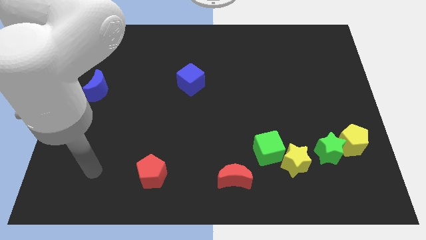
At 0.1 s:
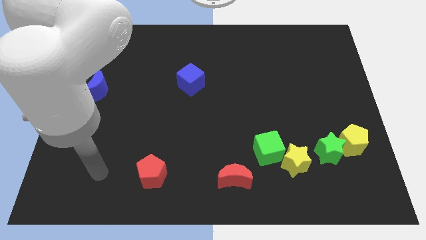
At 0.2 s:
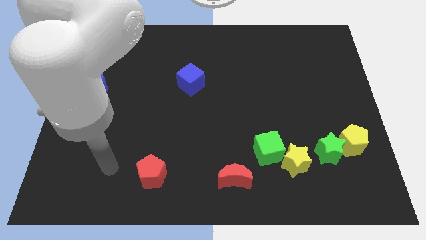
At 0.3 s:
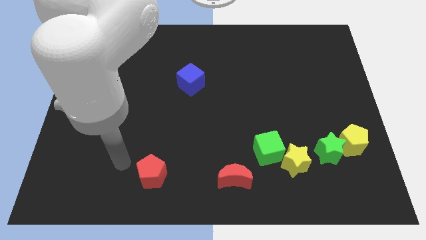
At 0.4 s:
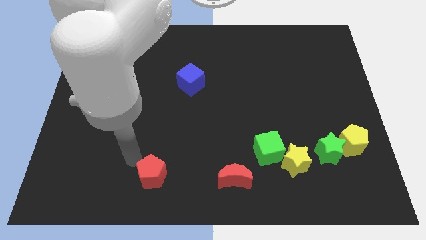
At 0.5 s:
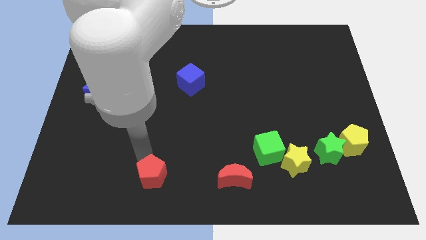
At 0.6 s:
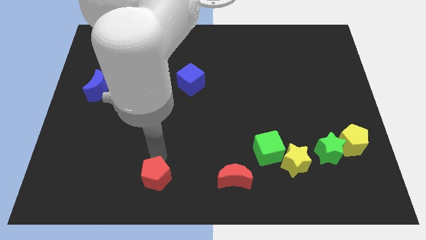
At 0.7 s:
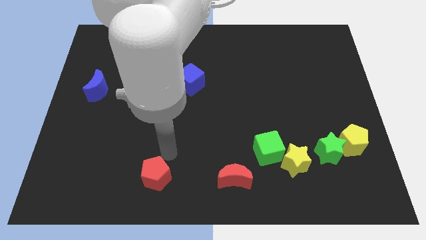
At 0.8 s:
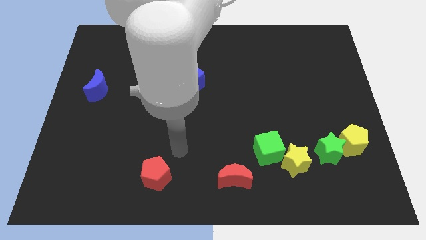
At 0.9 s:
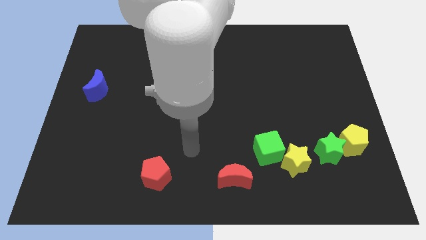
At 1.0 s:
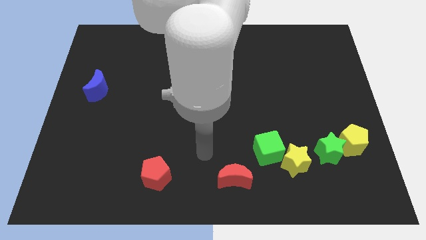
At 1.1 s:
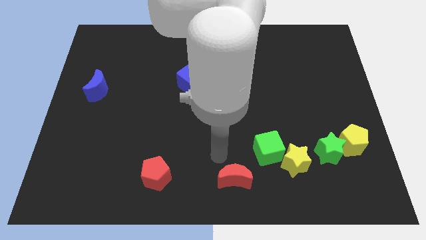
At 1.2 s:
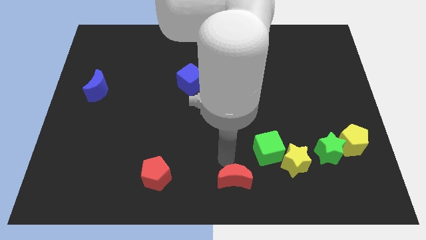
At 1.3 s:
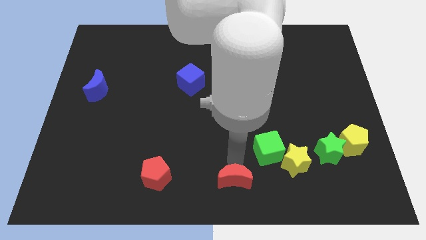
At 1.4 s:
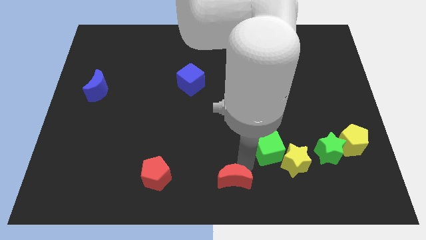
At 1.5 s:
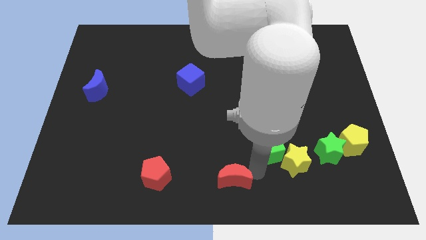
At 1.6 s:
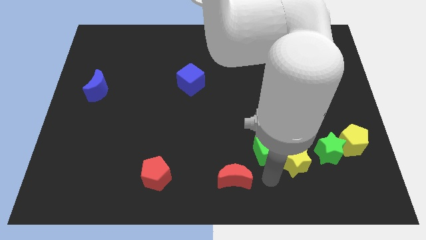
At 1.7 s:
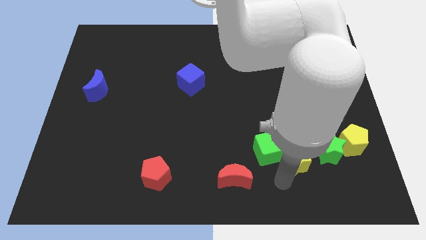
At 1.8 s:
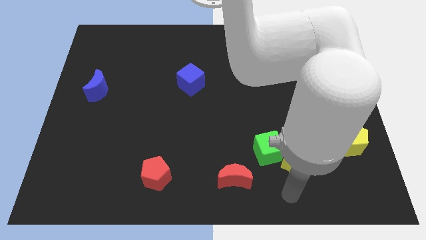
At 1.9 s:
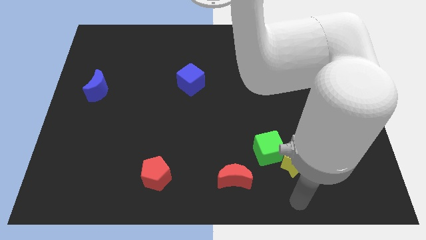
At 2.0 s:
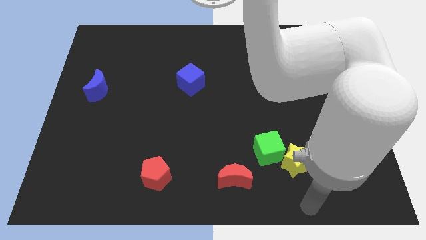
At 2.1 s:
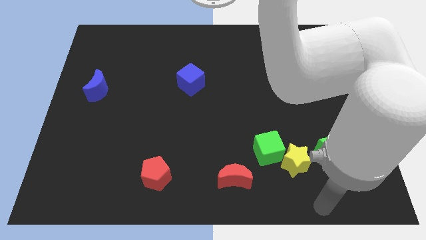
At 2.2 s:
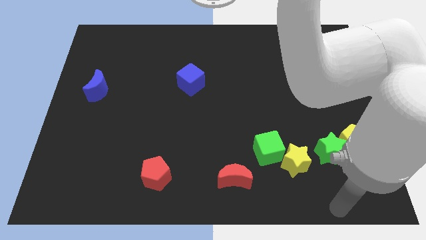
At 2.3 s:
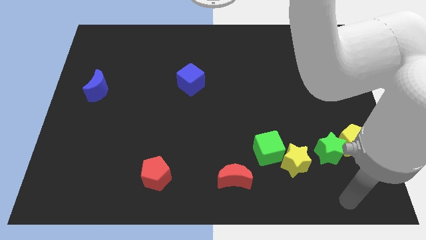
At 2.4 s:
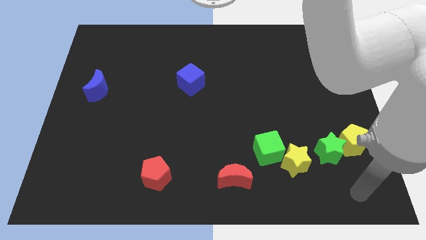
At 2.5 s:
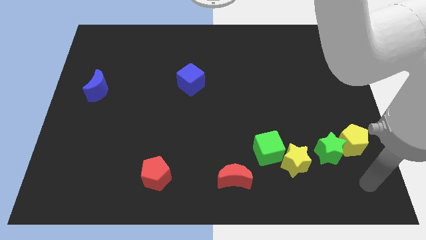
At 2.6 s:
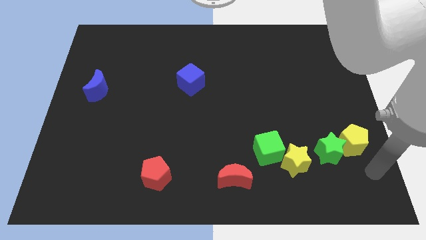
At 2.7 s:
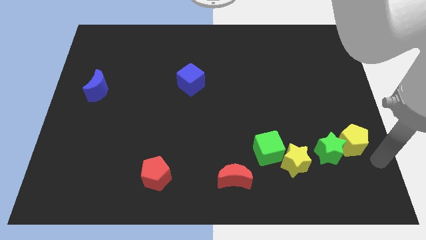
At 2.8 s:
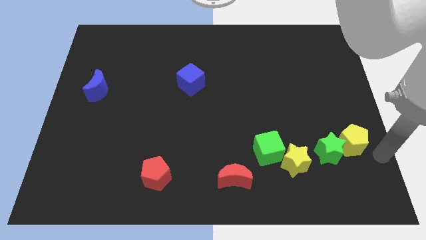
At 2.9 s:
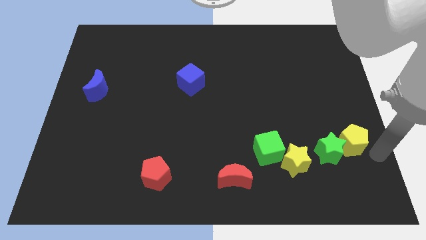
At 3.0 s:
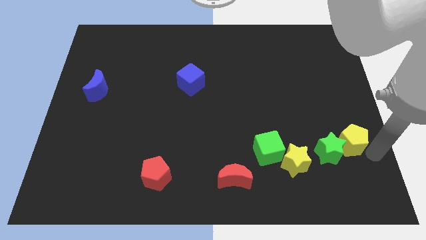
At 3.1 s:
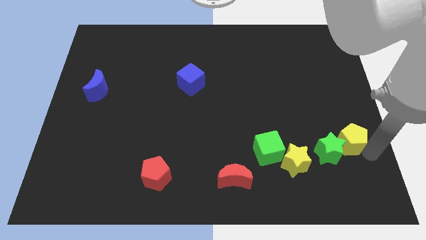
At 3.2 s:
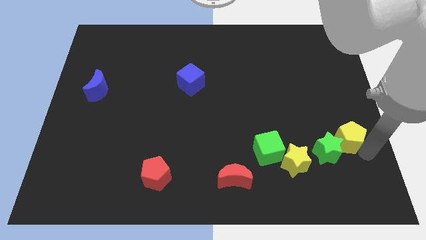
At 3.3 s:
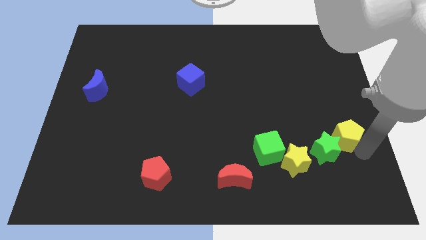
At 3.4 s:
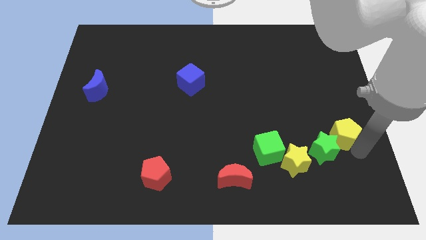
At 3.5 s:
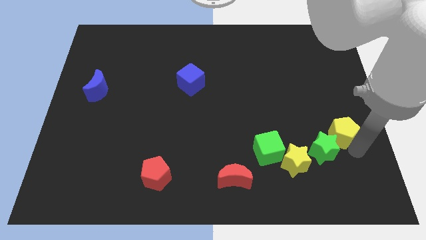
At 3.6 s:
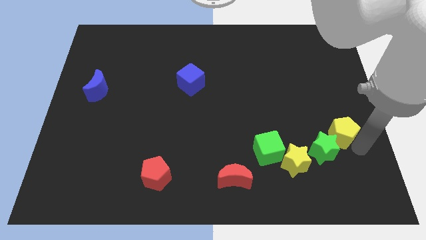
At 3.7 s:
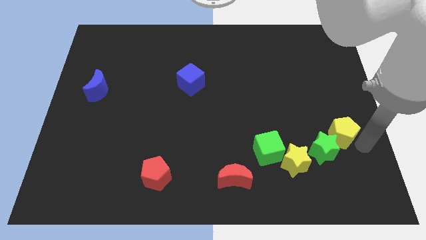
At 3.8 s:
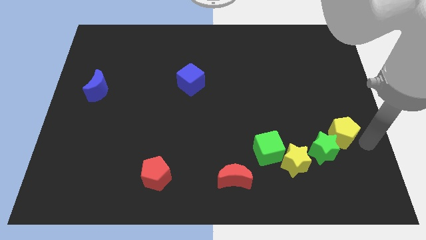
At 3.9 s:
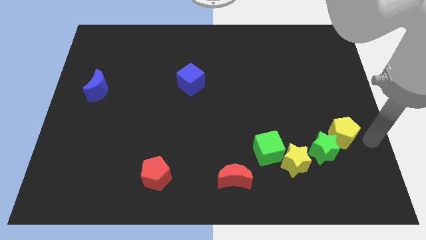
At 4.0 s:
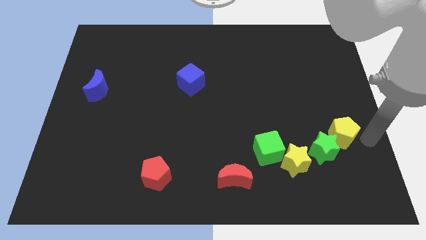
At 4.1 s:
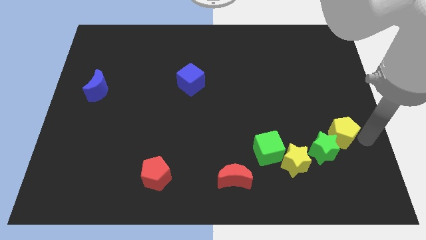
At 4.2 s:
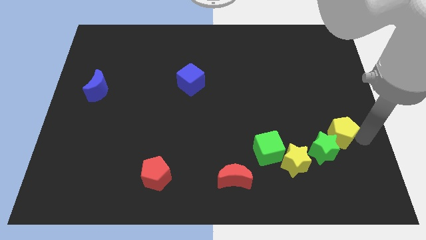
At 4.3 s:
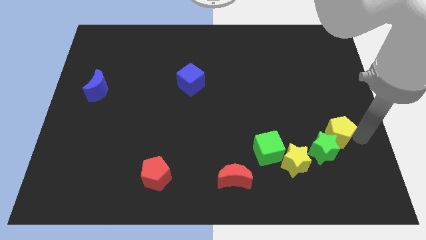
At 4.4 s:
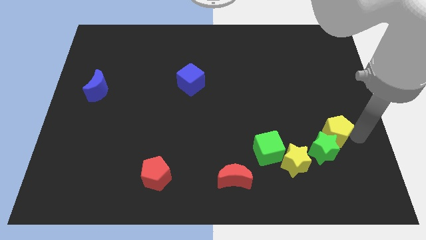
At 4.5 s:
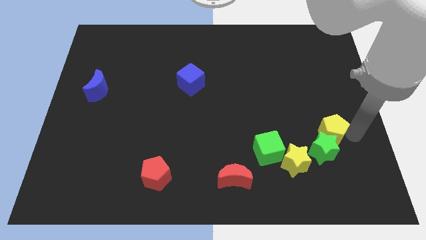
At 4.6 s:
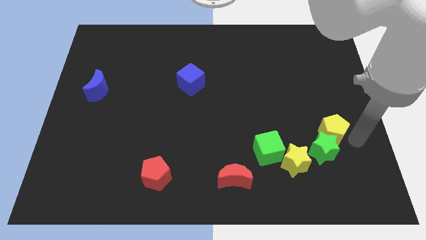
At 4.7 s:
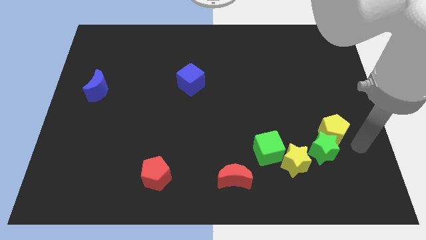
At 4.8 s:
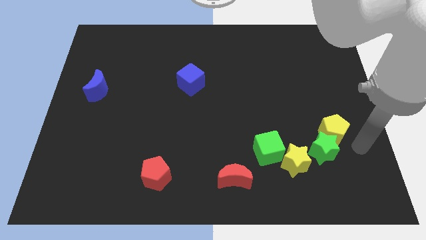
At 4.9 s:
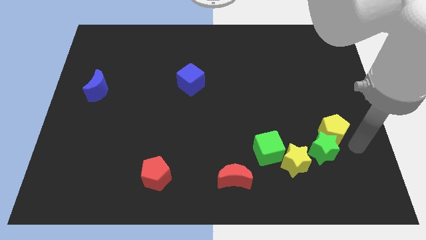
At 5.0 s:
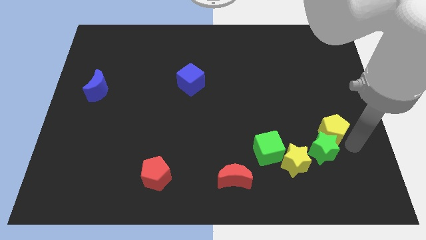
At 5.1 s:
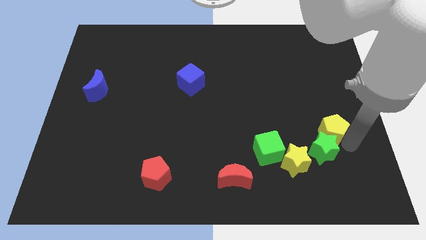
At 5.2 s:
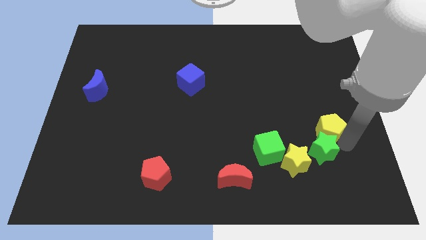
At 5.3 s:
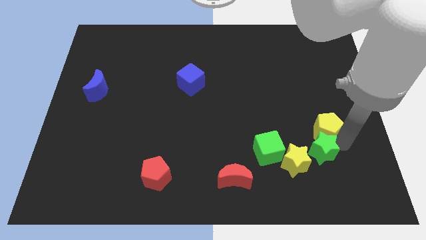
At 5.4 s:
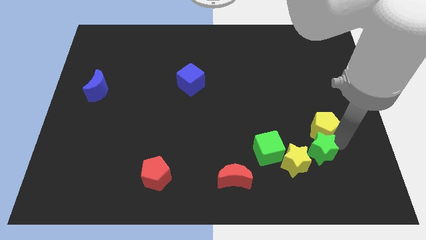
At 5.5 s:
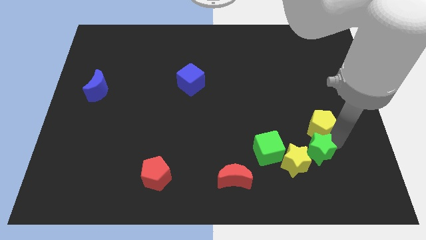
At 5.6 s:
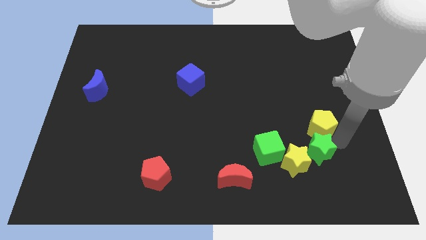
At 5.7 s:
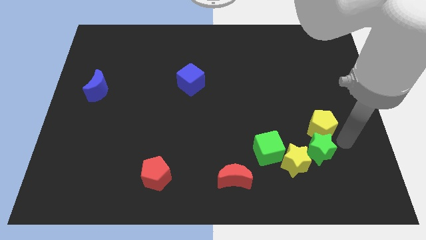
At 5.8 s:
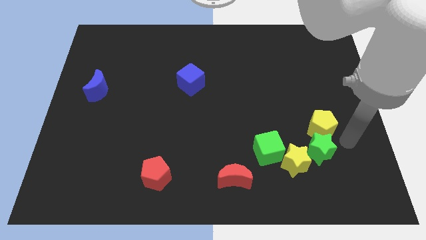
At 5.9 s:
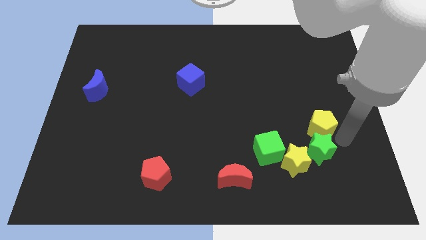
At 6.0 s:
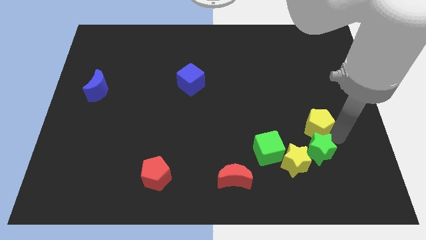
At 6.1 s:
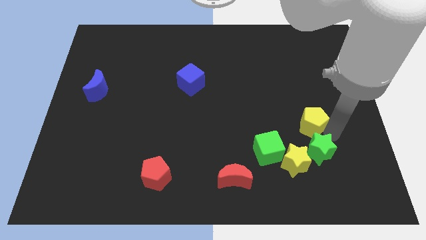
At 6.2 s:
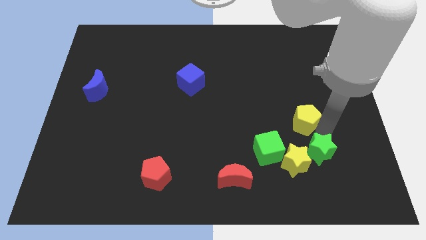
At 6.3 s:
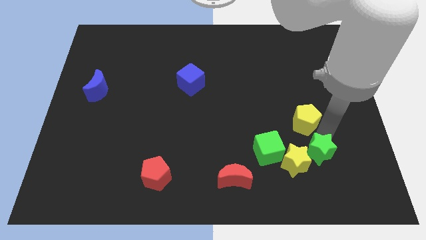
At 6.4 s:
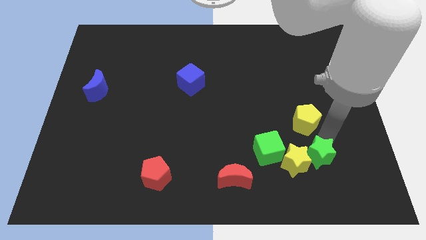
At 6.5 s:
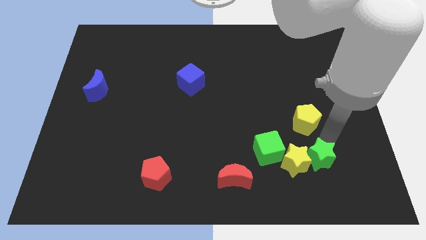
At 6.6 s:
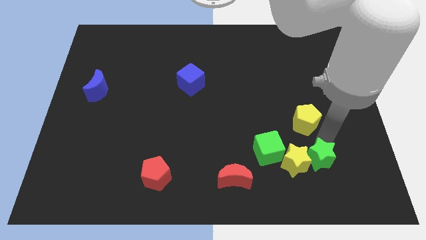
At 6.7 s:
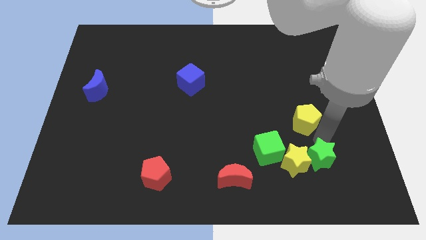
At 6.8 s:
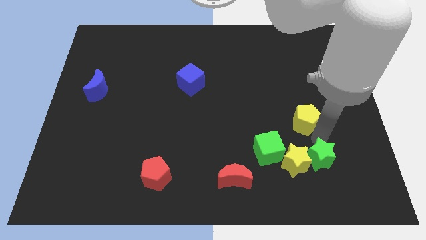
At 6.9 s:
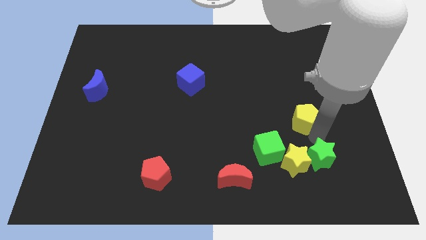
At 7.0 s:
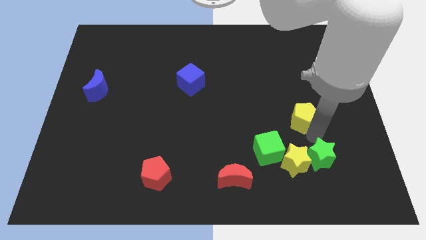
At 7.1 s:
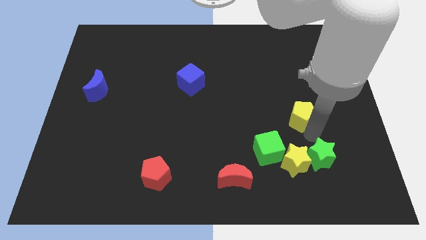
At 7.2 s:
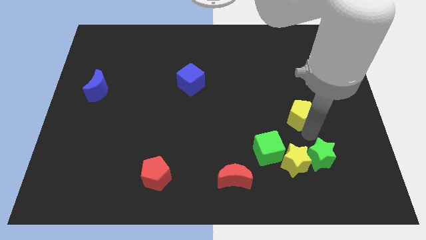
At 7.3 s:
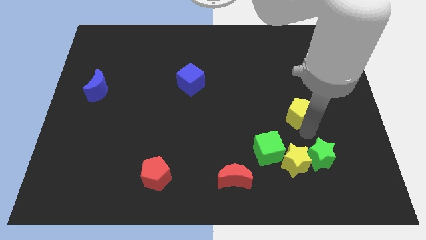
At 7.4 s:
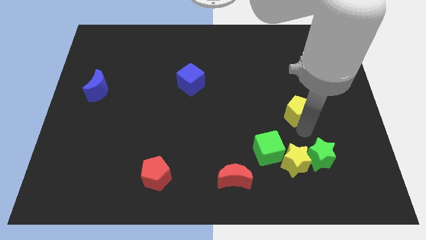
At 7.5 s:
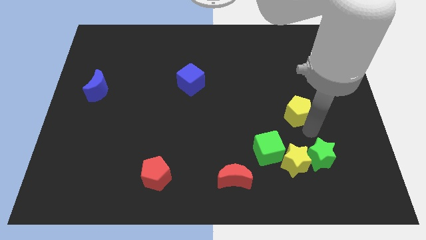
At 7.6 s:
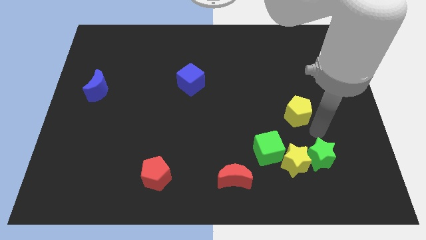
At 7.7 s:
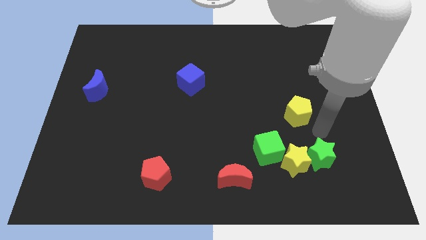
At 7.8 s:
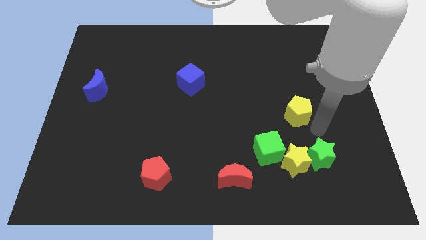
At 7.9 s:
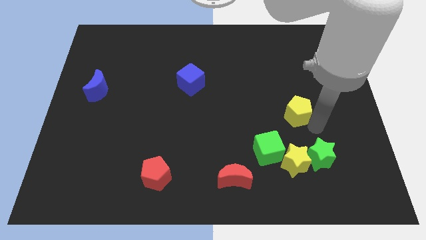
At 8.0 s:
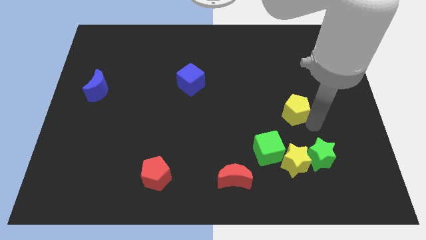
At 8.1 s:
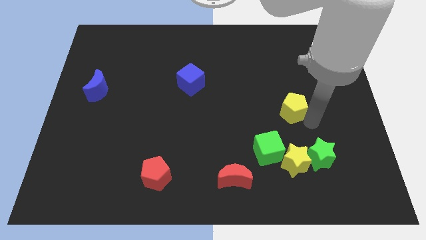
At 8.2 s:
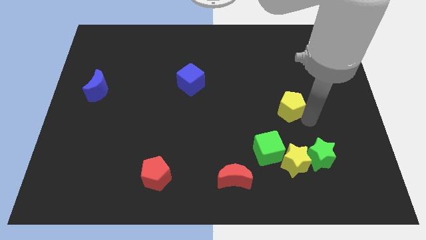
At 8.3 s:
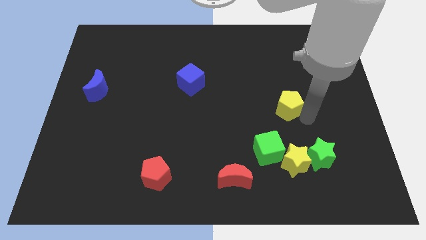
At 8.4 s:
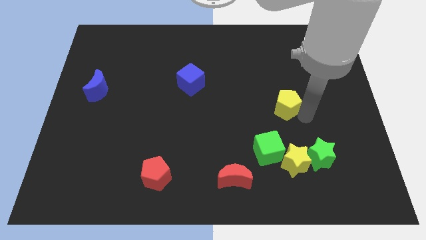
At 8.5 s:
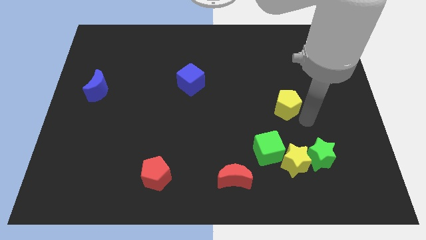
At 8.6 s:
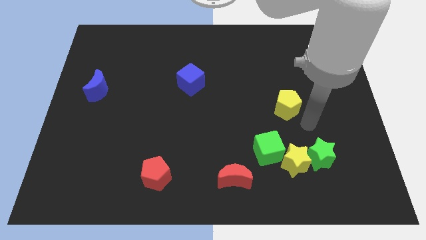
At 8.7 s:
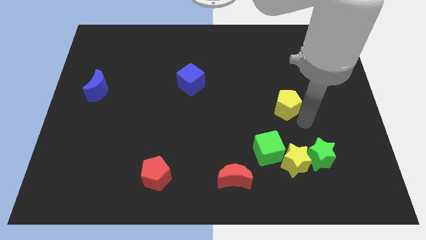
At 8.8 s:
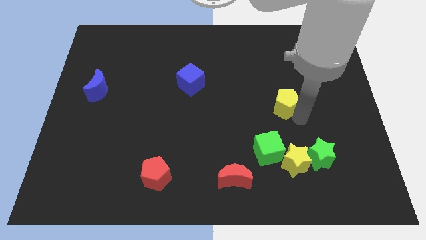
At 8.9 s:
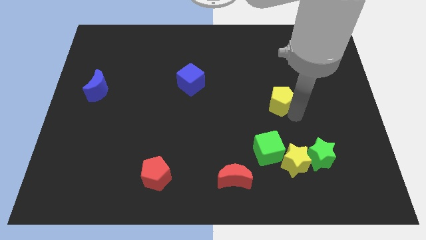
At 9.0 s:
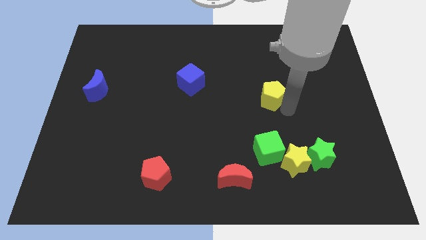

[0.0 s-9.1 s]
push the yellow pentagon up and to the left diagonally
